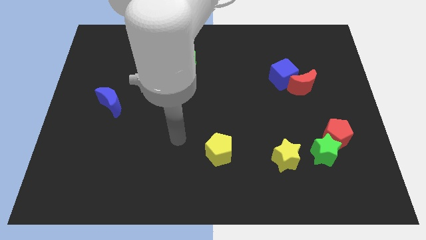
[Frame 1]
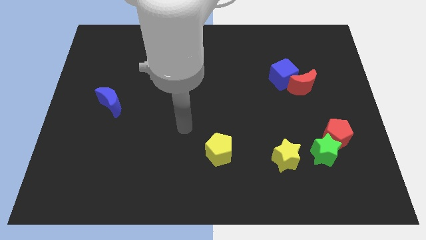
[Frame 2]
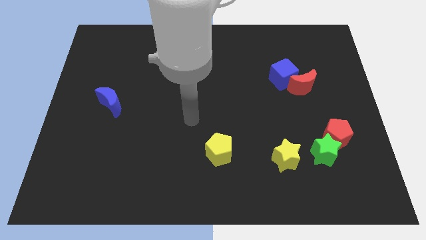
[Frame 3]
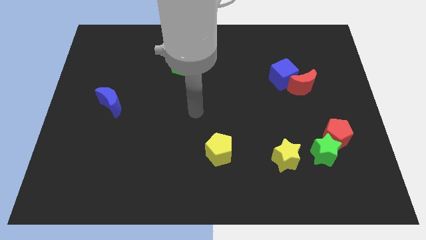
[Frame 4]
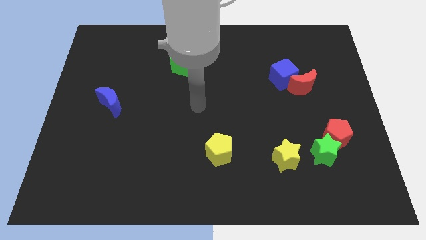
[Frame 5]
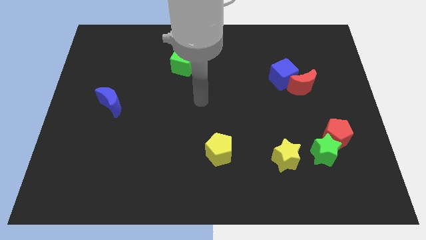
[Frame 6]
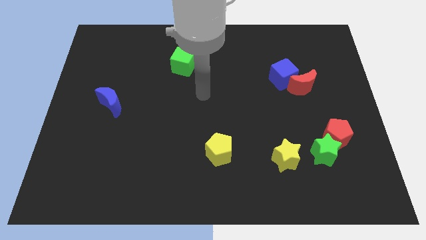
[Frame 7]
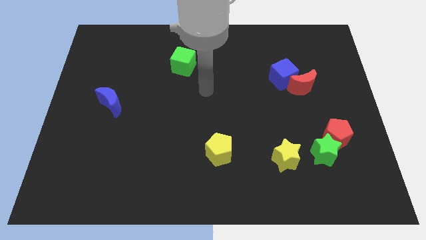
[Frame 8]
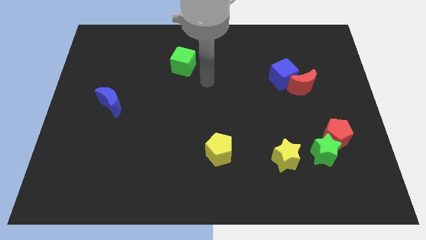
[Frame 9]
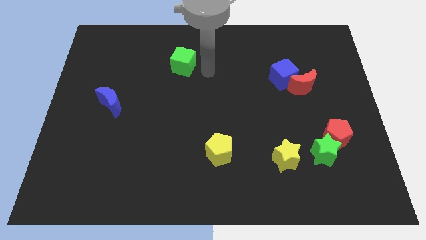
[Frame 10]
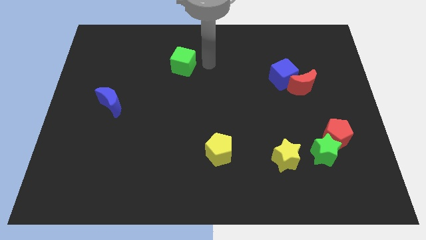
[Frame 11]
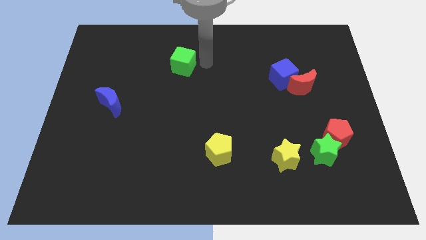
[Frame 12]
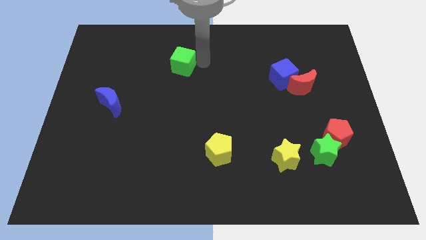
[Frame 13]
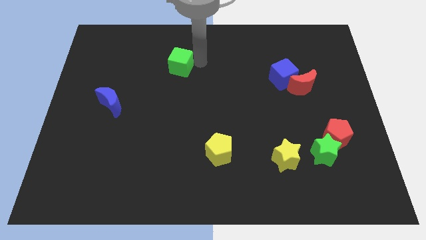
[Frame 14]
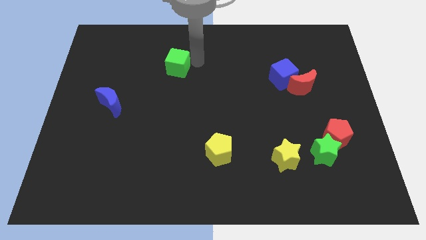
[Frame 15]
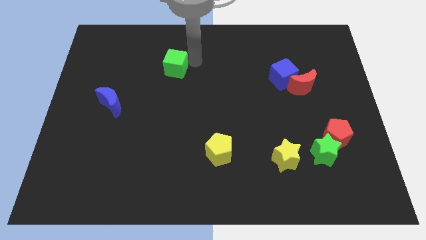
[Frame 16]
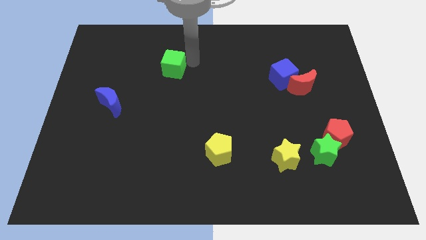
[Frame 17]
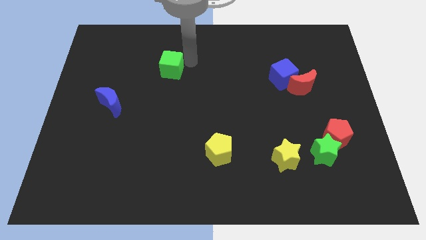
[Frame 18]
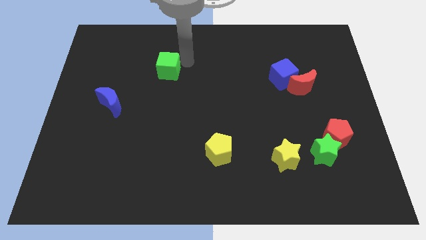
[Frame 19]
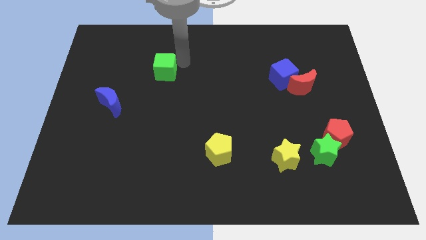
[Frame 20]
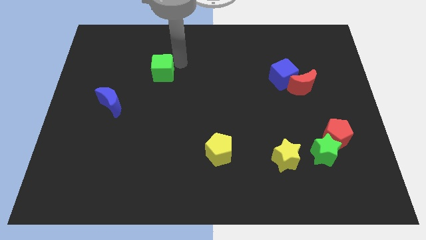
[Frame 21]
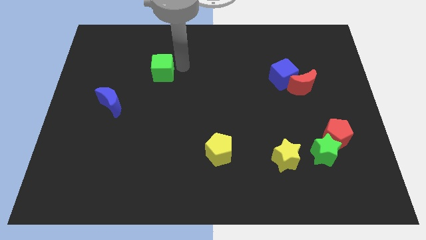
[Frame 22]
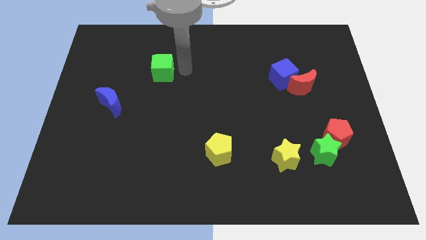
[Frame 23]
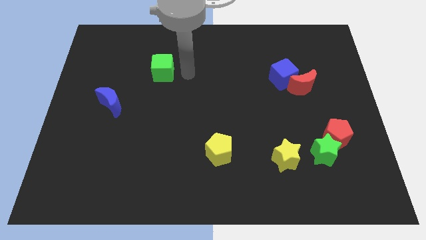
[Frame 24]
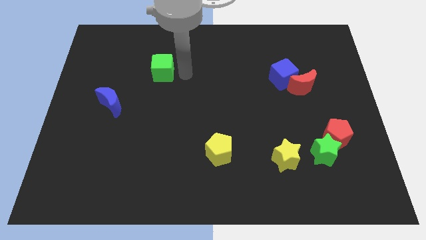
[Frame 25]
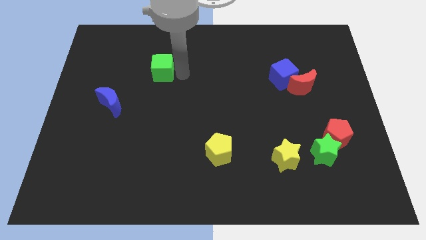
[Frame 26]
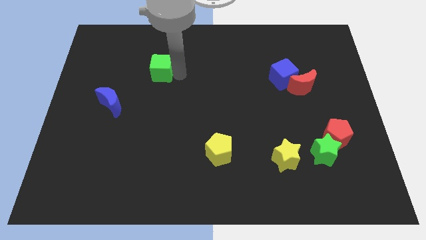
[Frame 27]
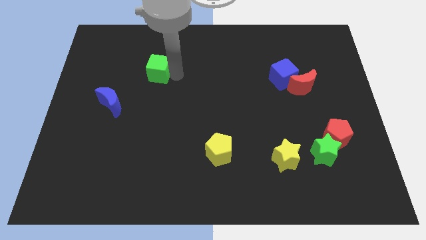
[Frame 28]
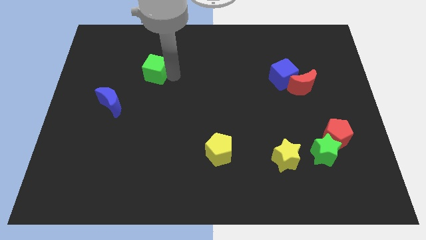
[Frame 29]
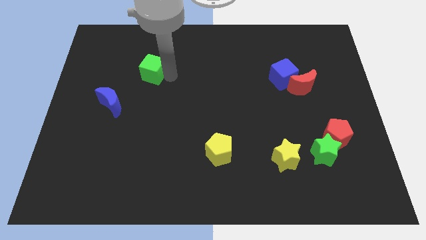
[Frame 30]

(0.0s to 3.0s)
push the green cube a little left

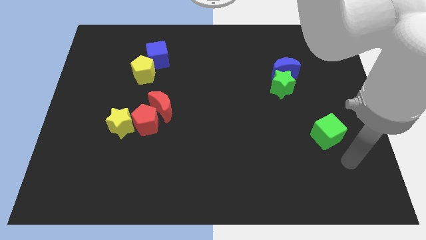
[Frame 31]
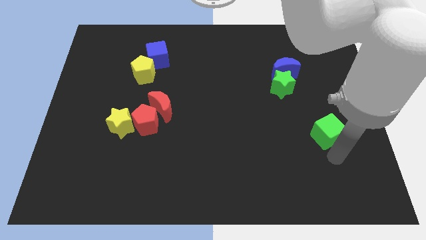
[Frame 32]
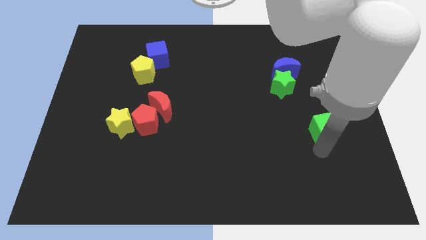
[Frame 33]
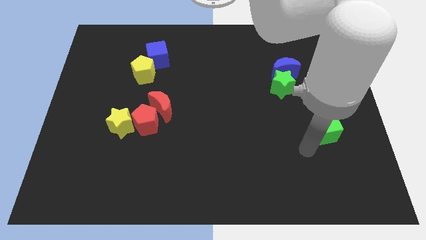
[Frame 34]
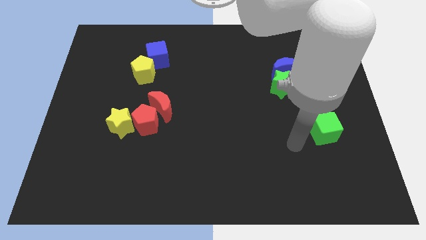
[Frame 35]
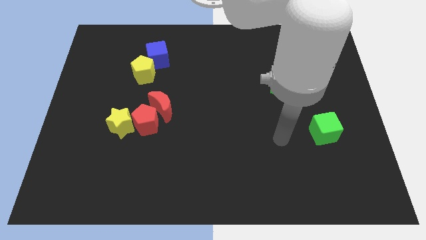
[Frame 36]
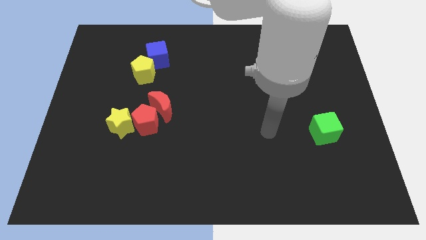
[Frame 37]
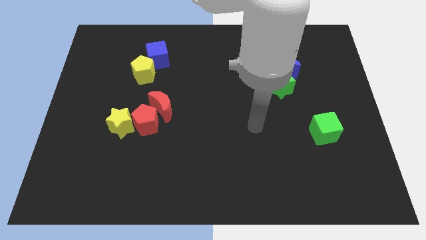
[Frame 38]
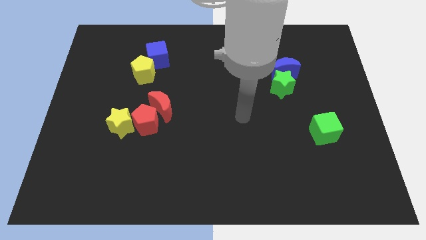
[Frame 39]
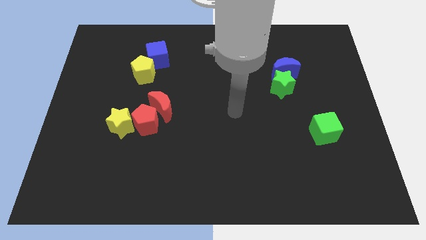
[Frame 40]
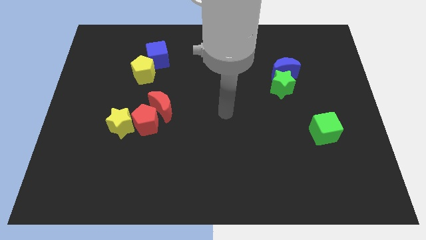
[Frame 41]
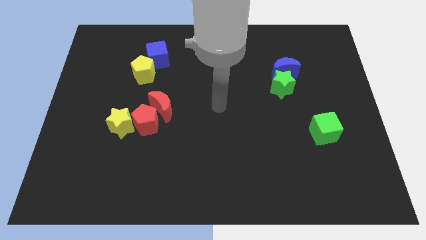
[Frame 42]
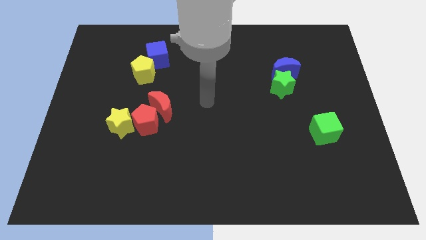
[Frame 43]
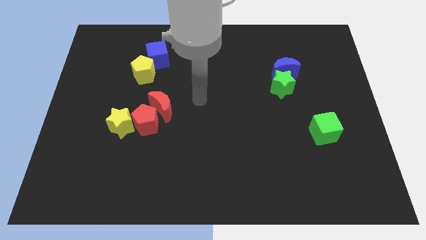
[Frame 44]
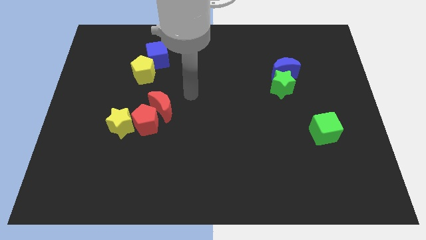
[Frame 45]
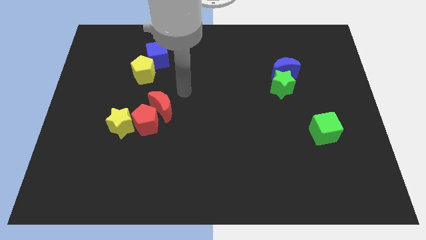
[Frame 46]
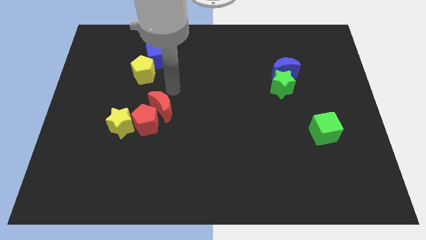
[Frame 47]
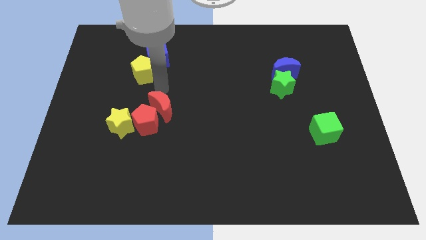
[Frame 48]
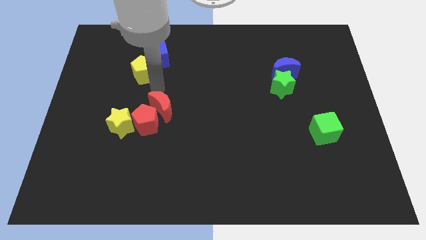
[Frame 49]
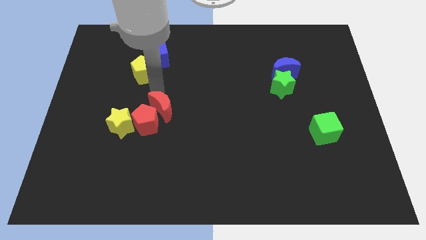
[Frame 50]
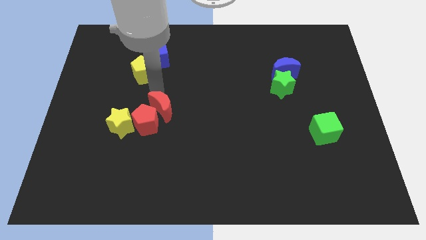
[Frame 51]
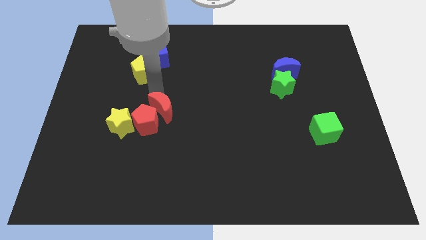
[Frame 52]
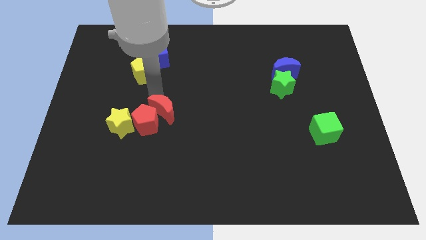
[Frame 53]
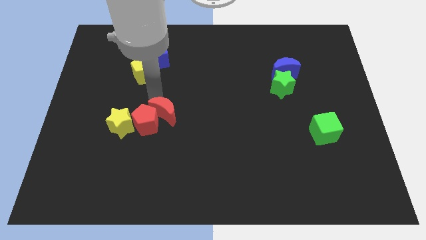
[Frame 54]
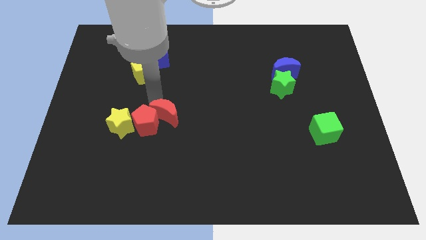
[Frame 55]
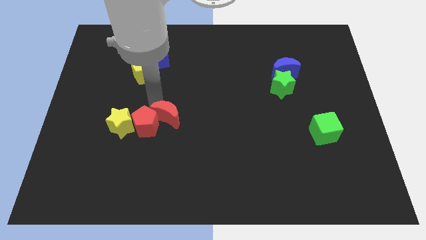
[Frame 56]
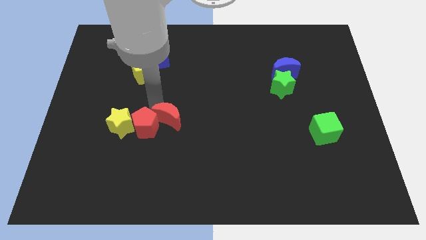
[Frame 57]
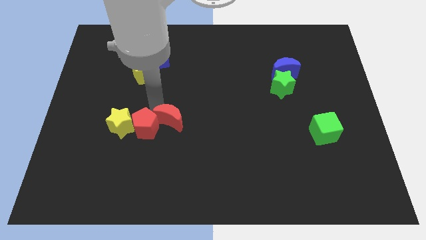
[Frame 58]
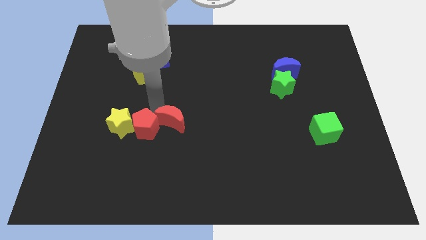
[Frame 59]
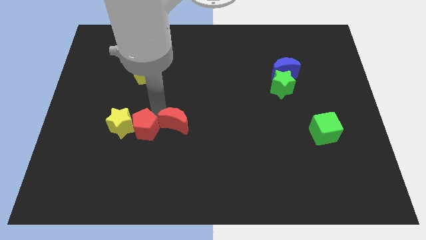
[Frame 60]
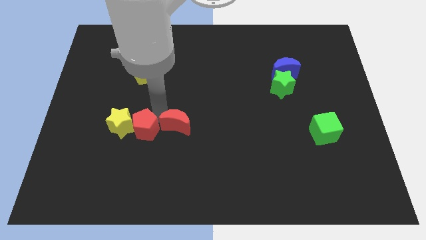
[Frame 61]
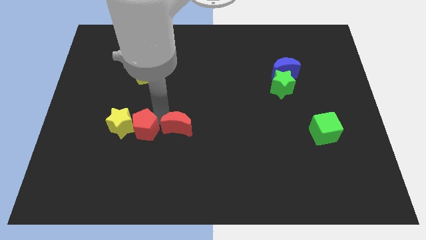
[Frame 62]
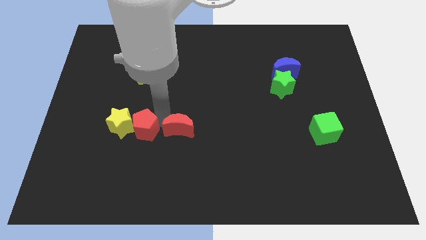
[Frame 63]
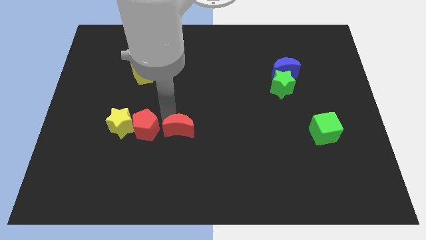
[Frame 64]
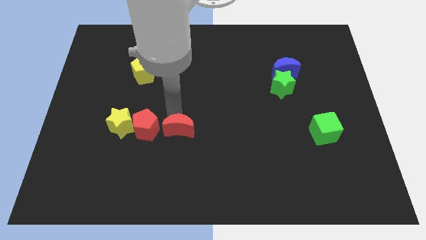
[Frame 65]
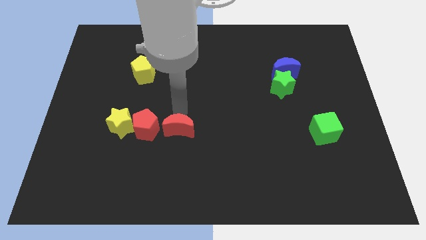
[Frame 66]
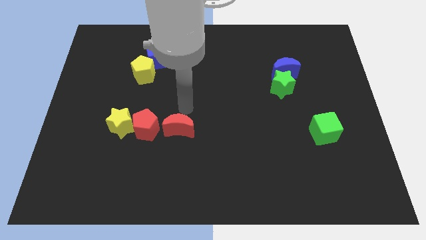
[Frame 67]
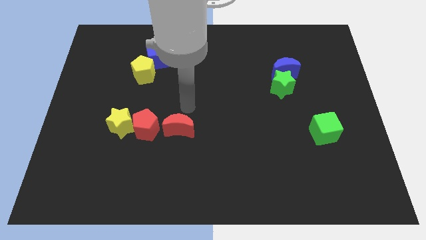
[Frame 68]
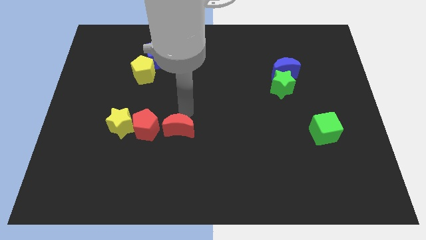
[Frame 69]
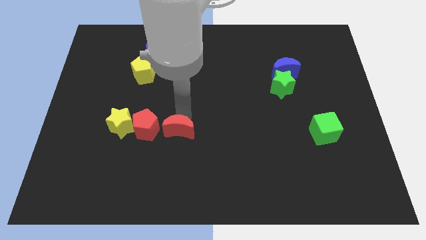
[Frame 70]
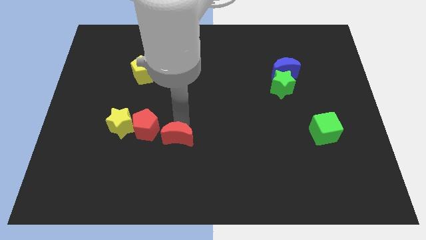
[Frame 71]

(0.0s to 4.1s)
slightly slide the red moon downwards

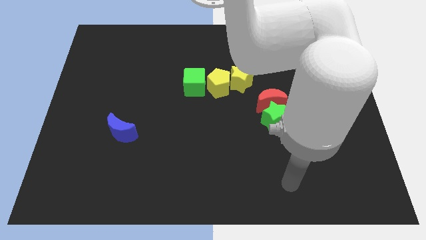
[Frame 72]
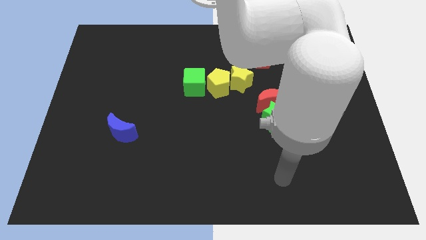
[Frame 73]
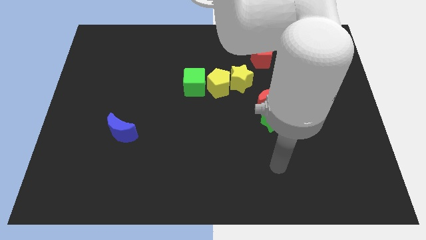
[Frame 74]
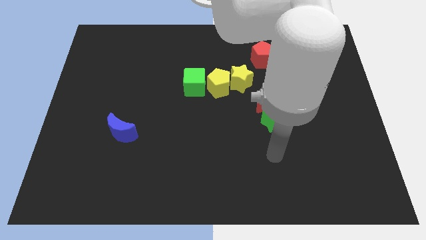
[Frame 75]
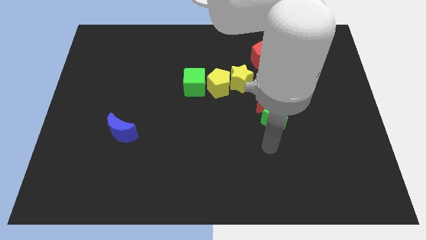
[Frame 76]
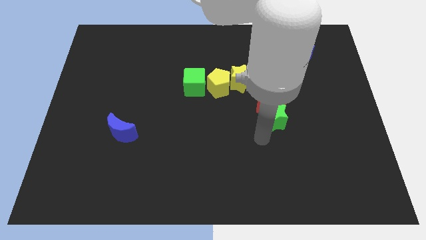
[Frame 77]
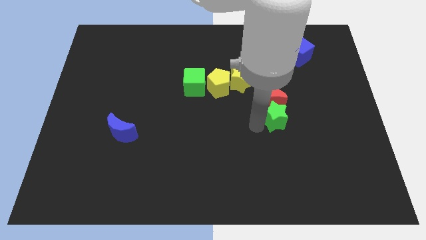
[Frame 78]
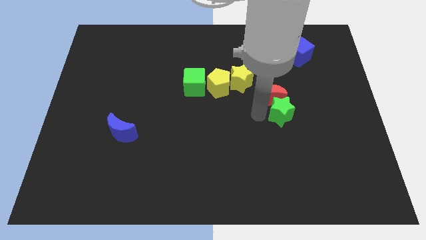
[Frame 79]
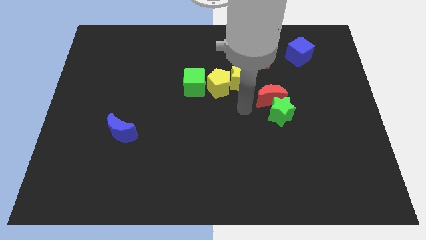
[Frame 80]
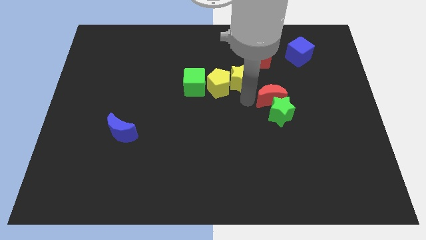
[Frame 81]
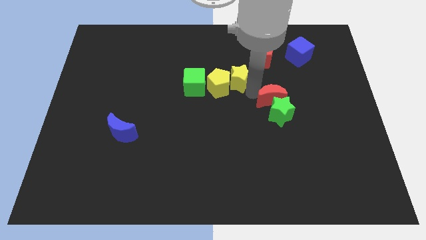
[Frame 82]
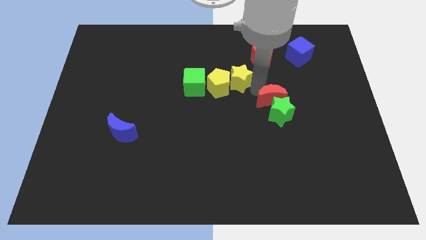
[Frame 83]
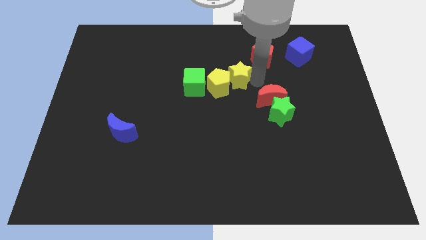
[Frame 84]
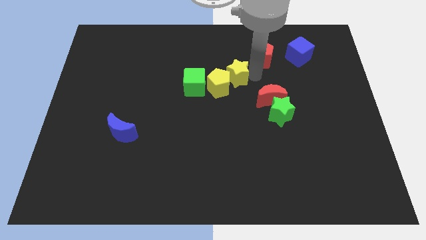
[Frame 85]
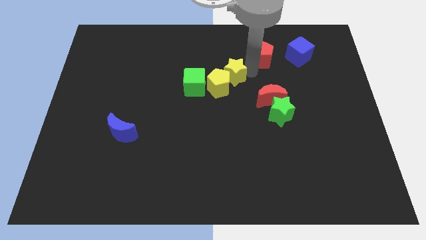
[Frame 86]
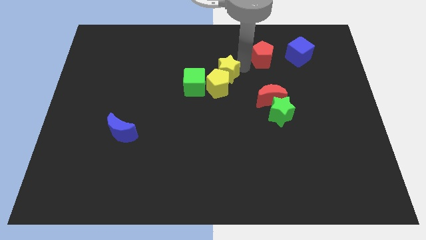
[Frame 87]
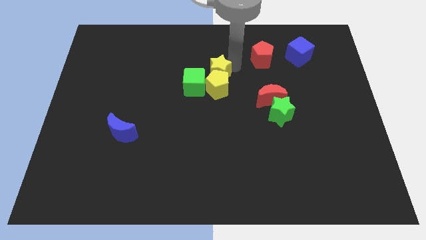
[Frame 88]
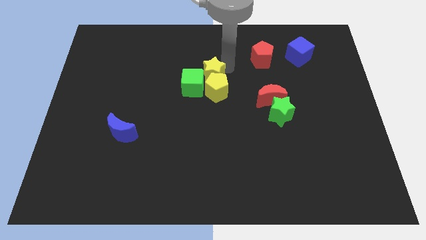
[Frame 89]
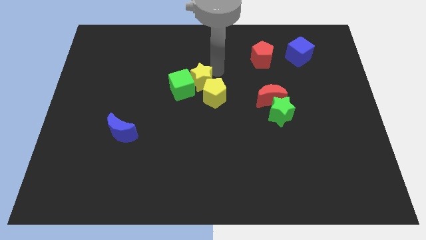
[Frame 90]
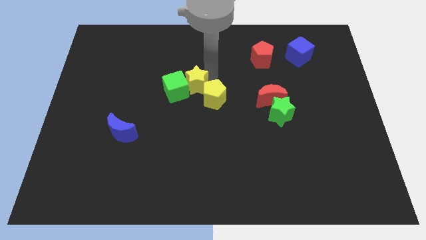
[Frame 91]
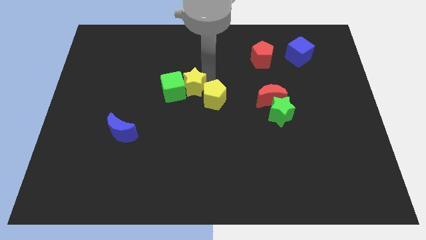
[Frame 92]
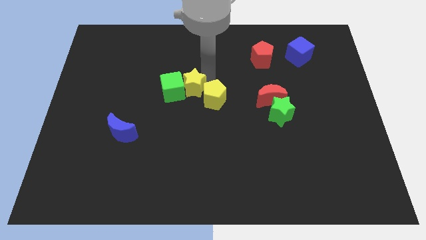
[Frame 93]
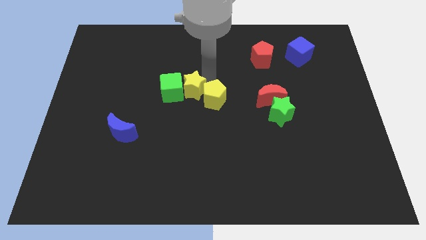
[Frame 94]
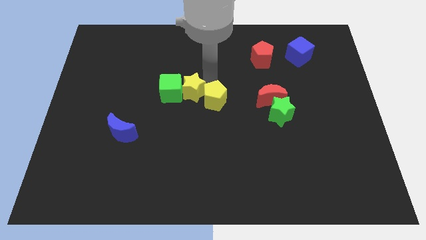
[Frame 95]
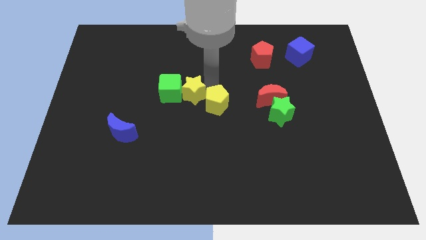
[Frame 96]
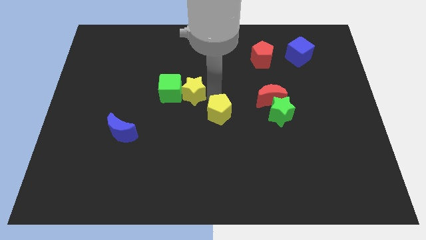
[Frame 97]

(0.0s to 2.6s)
slightly slide the yellow pentagon downwards
